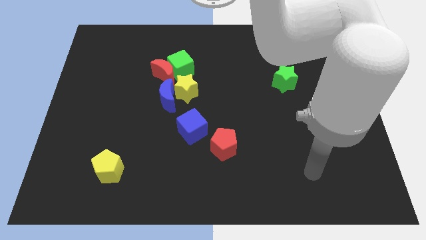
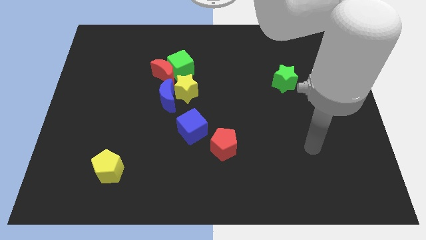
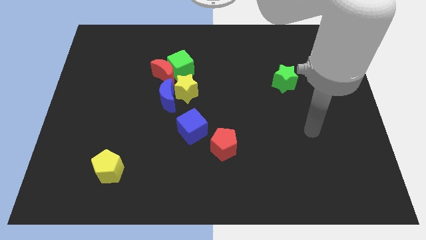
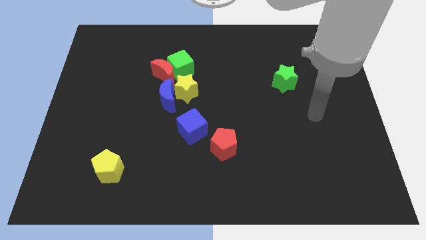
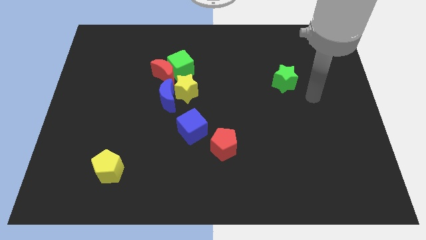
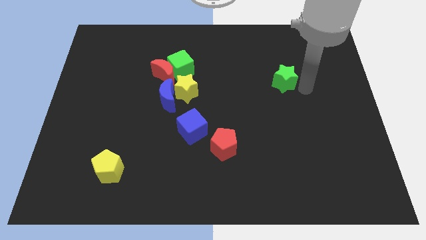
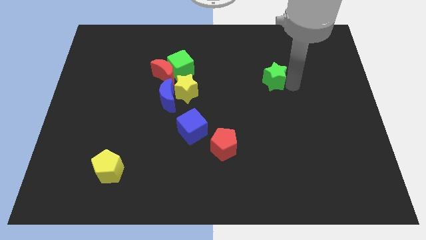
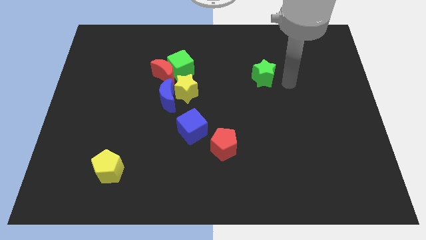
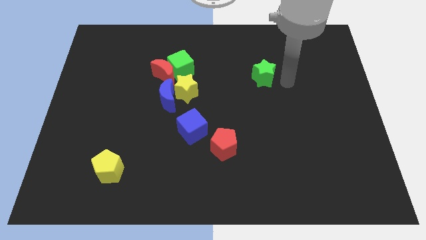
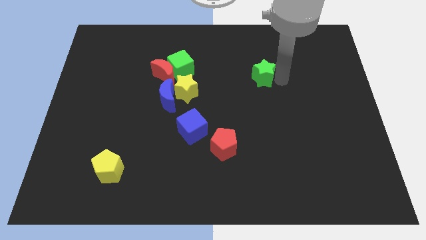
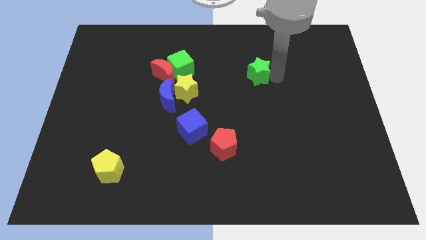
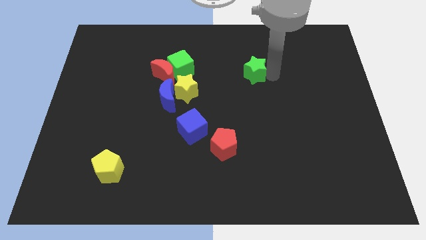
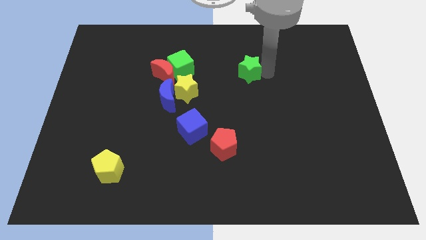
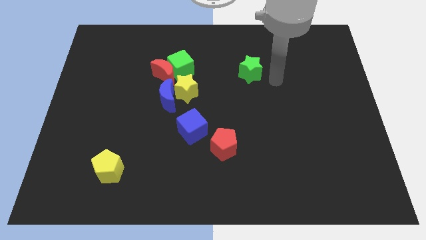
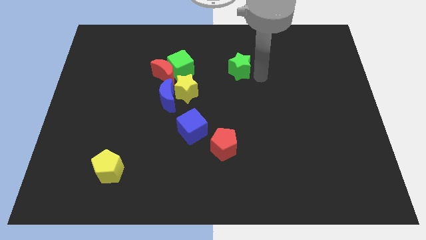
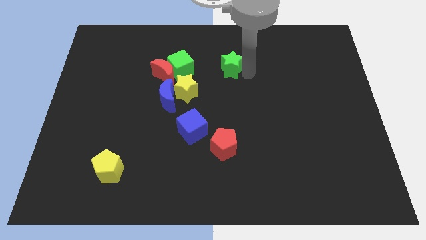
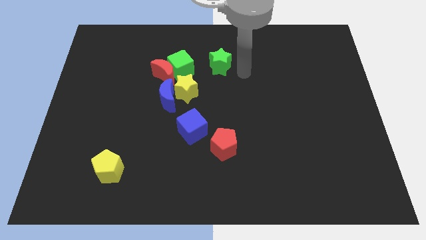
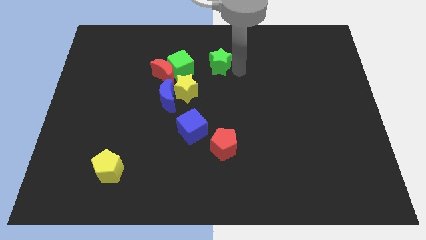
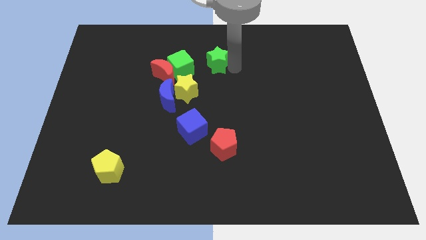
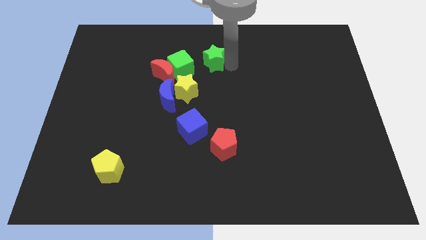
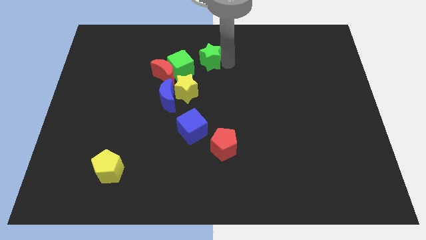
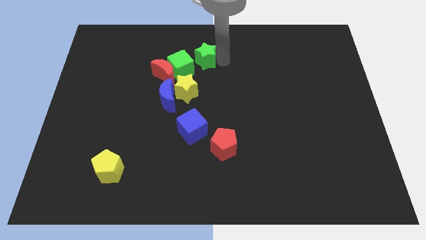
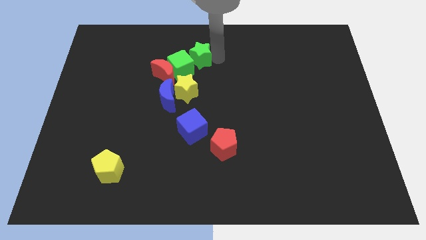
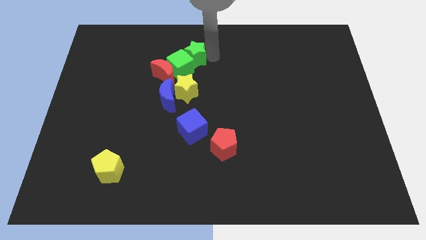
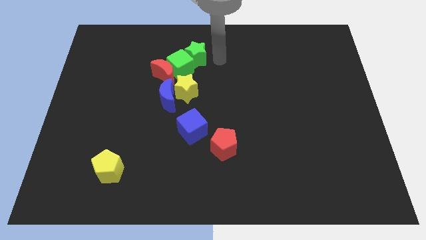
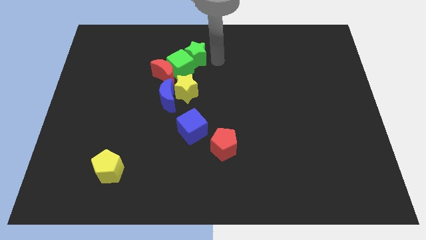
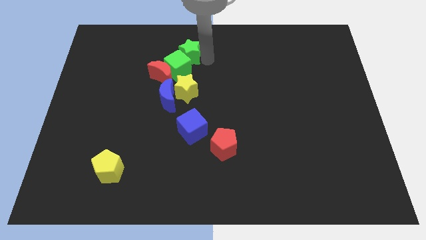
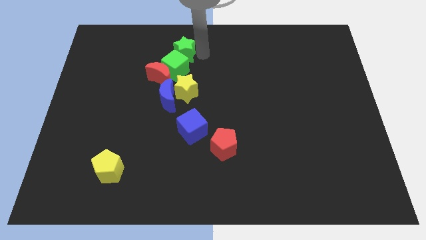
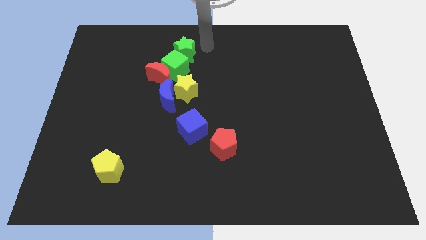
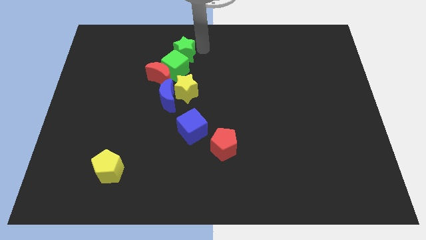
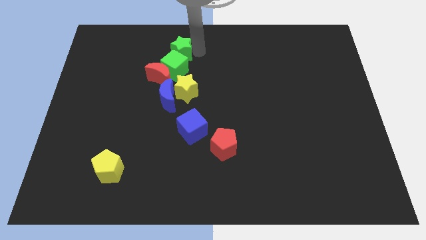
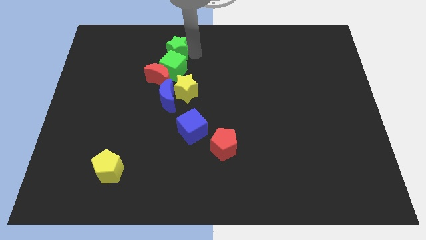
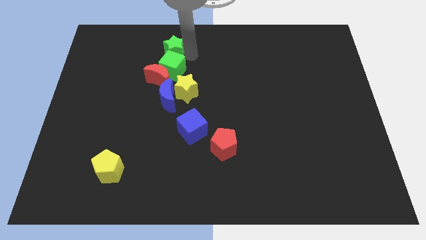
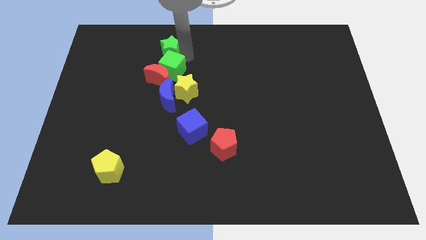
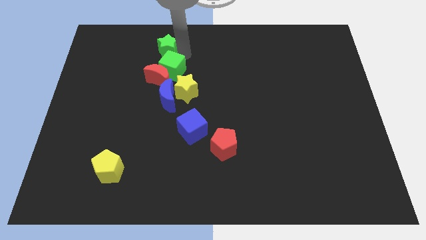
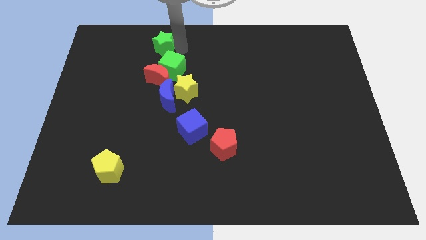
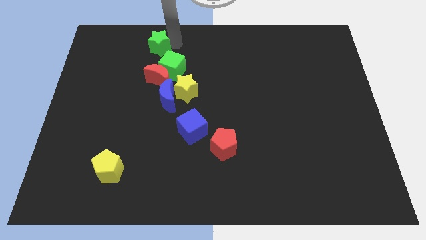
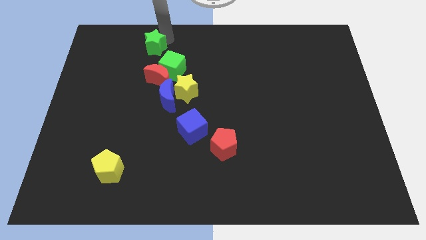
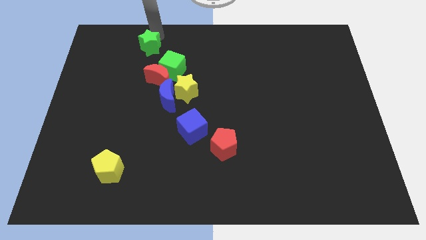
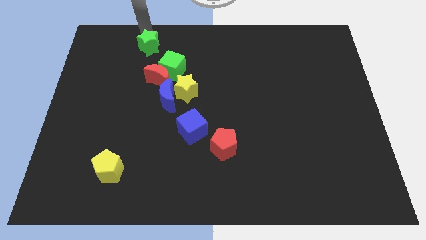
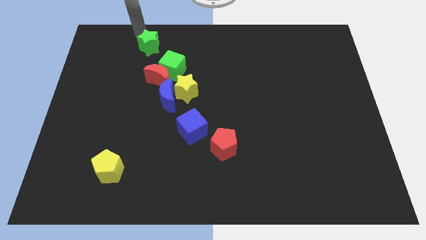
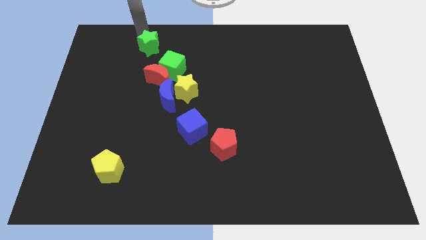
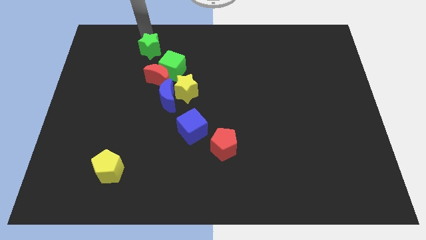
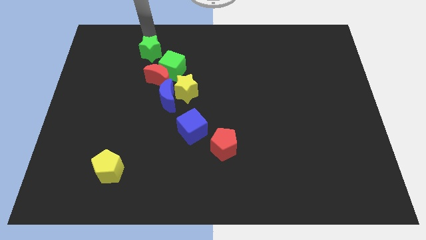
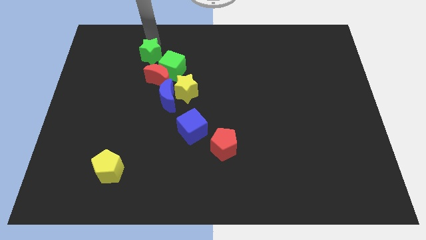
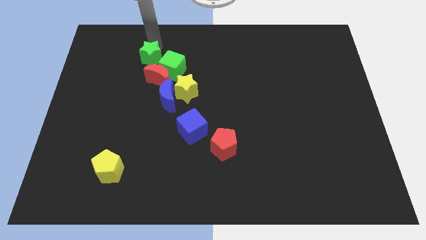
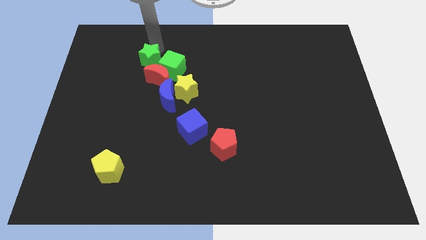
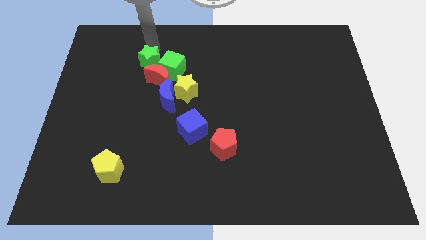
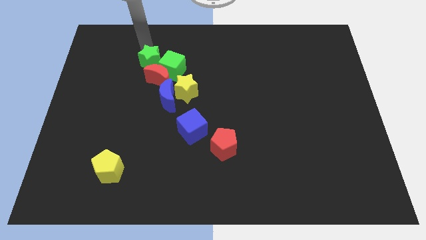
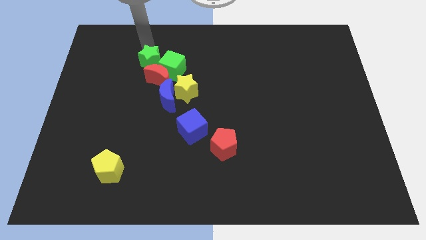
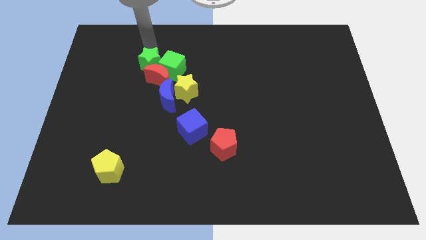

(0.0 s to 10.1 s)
slide the green star towards the red moon

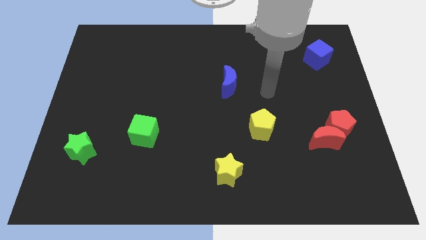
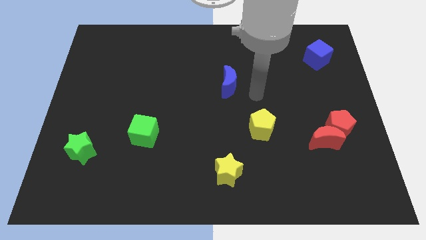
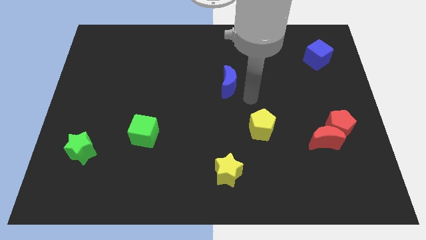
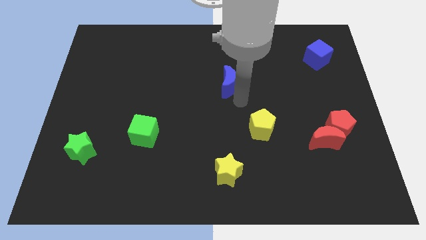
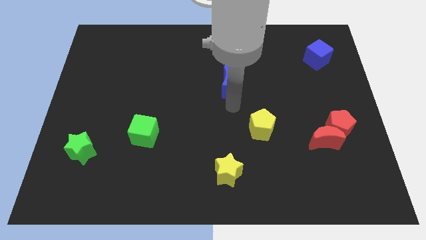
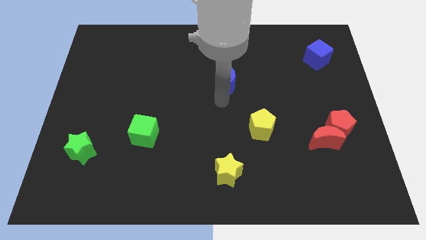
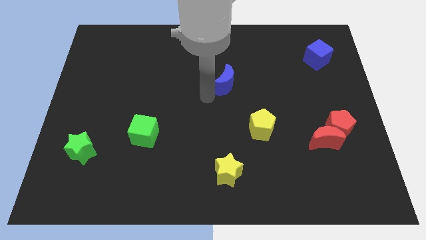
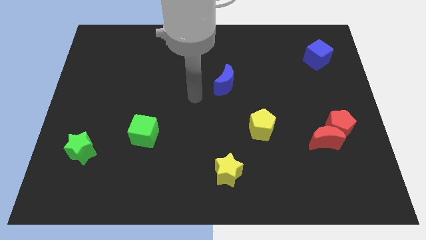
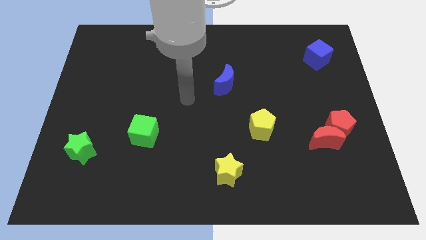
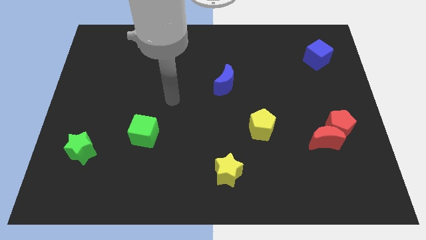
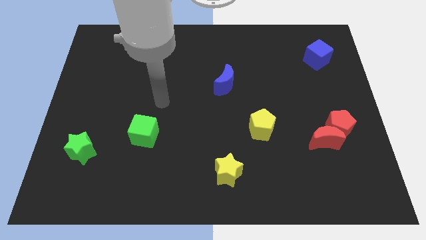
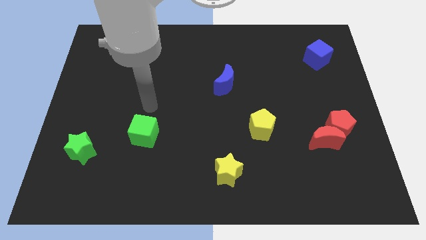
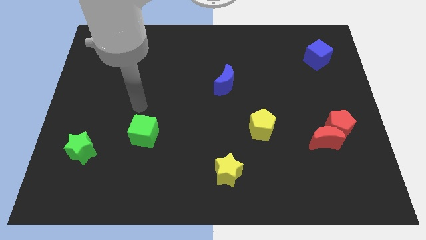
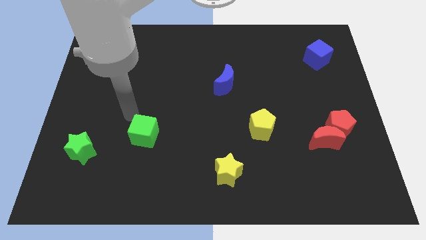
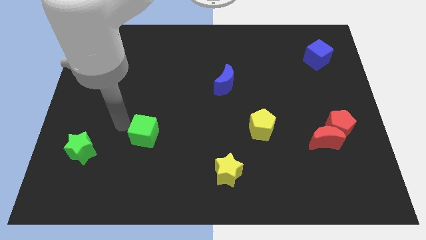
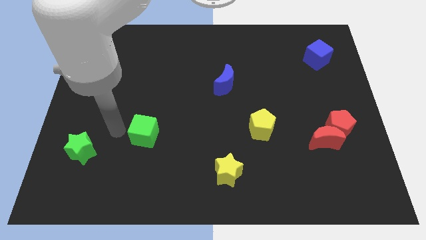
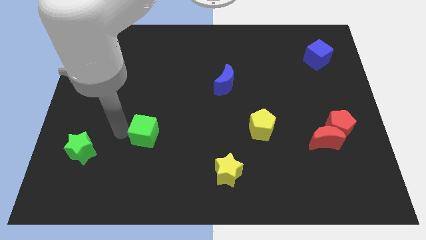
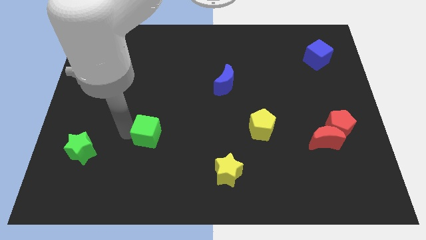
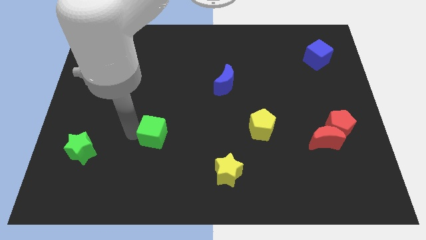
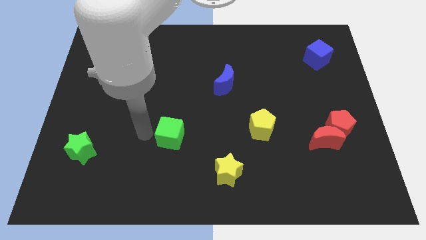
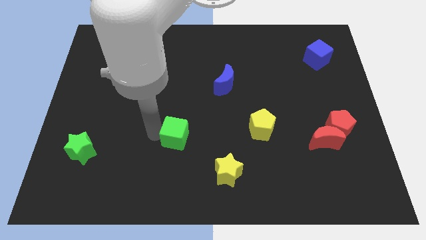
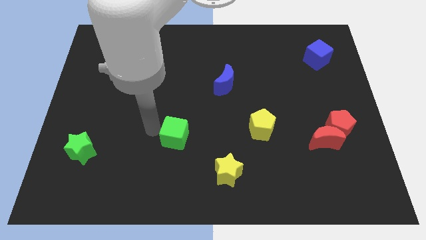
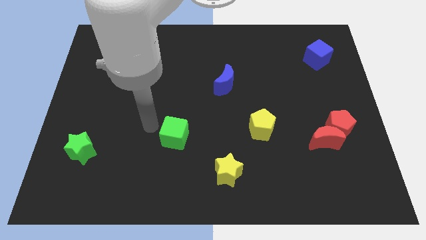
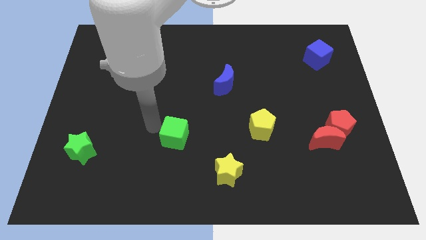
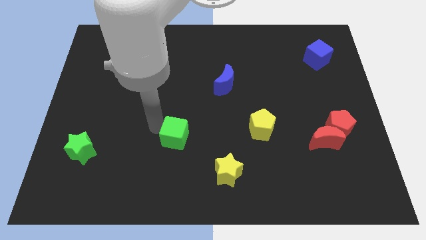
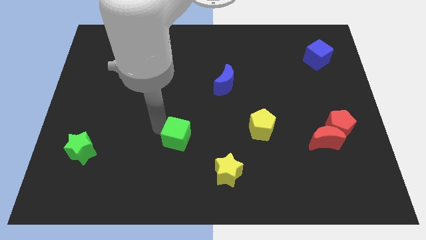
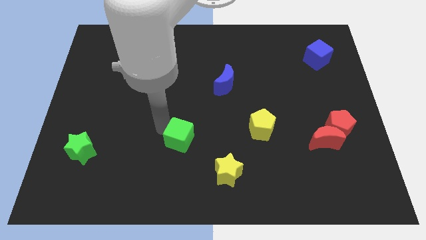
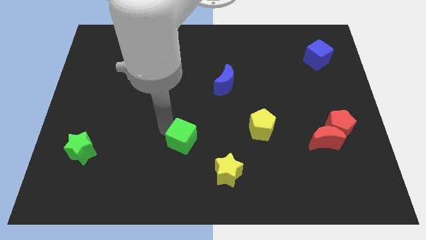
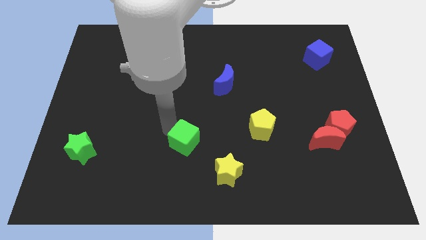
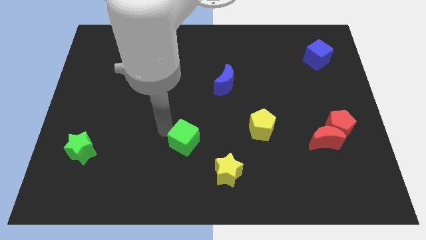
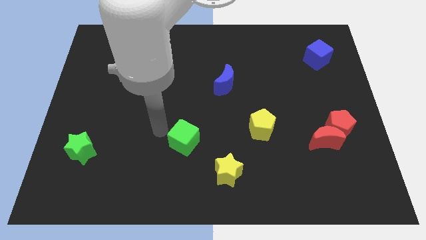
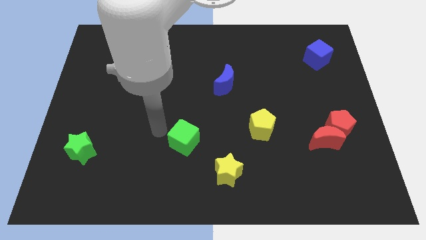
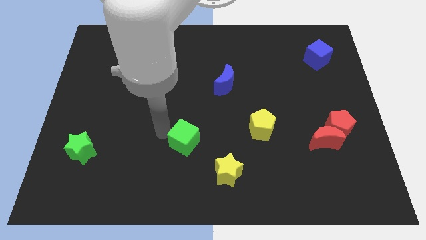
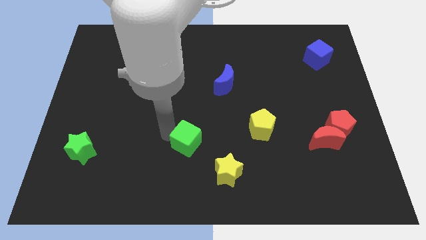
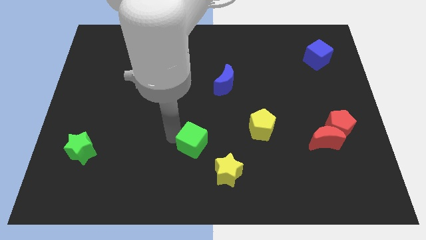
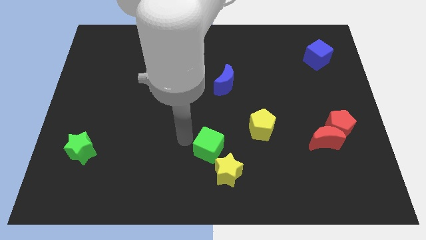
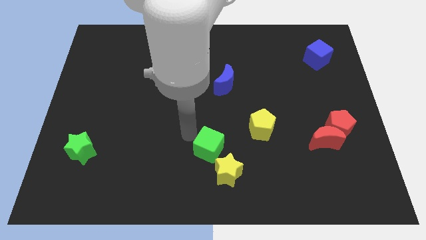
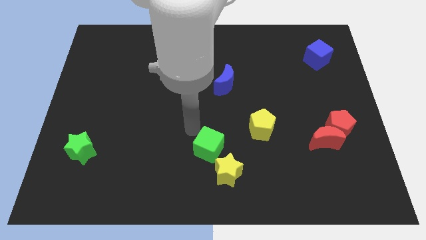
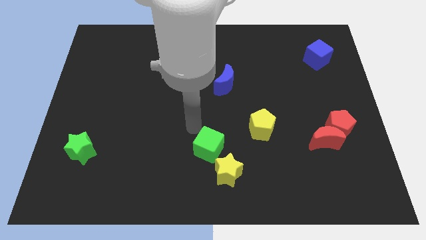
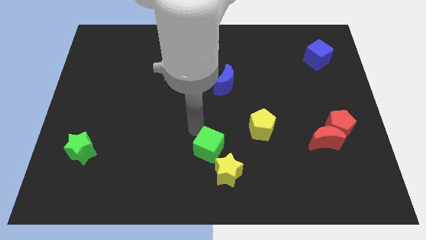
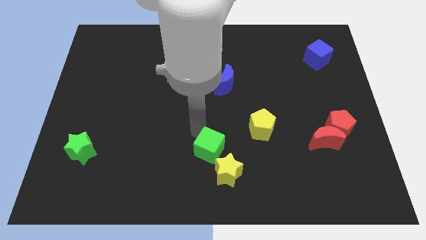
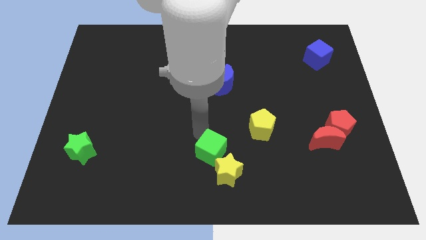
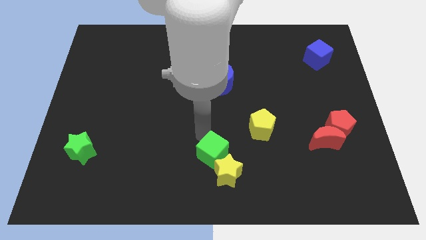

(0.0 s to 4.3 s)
push the green cube to the yellow star
